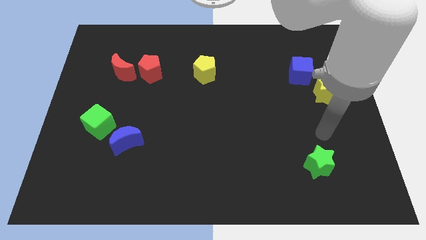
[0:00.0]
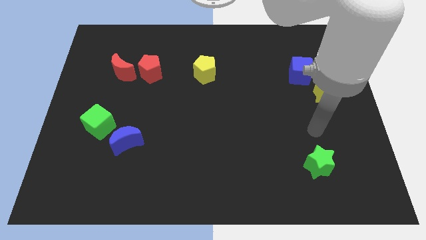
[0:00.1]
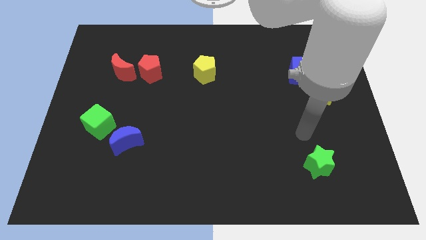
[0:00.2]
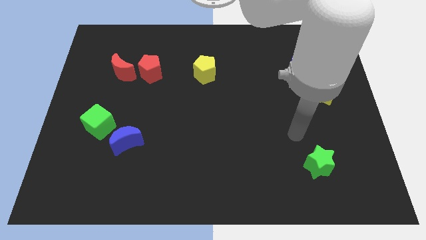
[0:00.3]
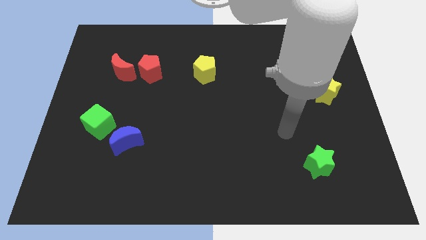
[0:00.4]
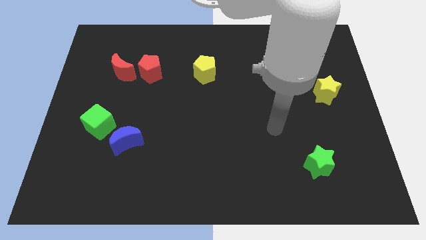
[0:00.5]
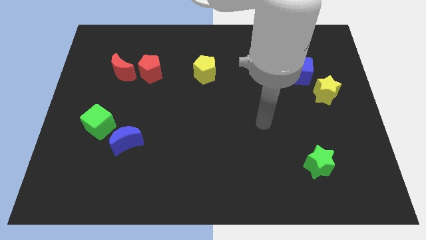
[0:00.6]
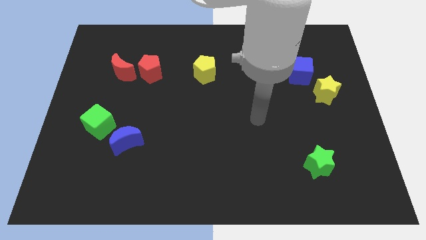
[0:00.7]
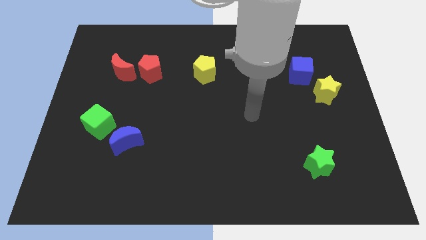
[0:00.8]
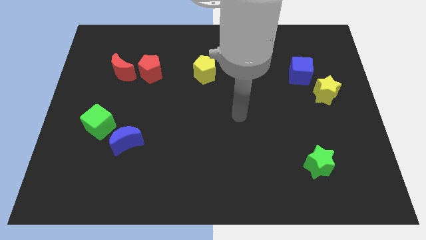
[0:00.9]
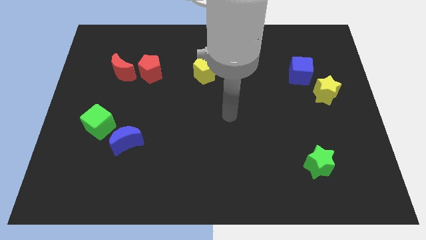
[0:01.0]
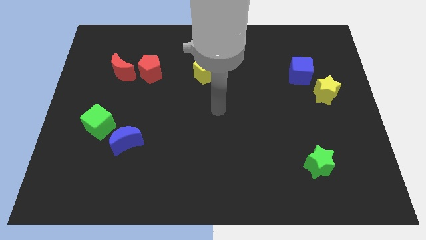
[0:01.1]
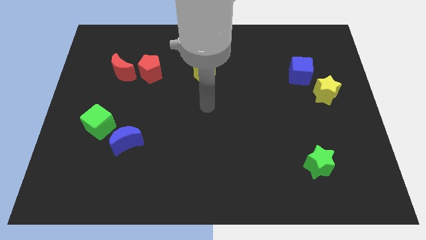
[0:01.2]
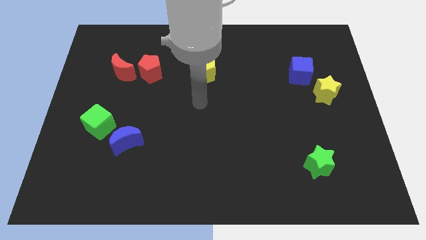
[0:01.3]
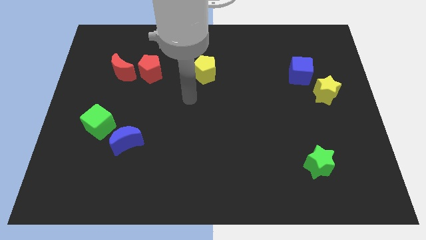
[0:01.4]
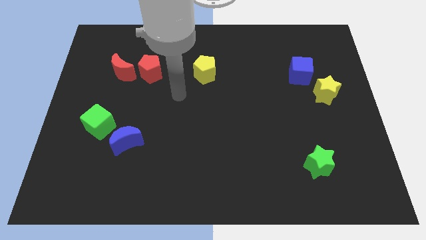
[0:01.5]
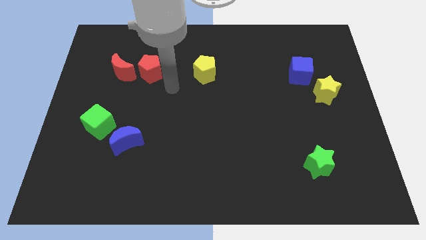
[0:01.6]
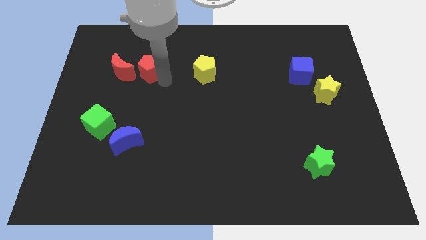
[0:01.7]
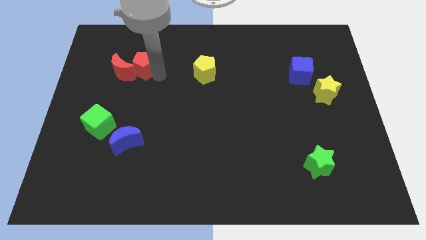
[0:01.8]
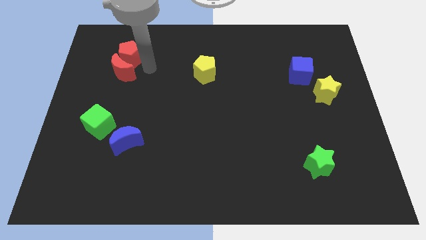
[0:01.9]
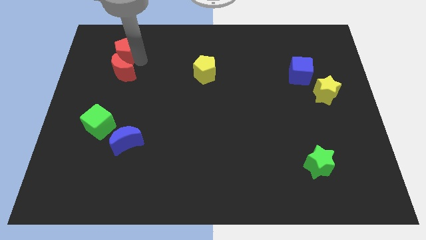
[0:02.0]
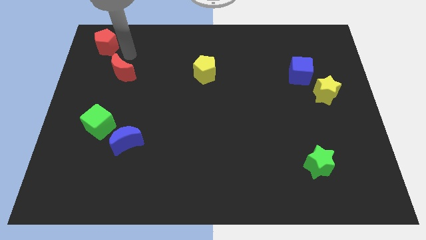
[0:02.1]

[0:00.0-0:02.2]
move the red moon away from the red pentagon

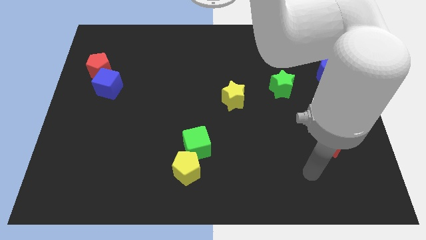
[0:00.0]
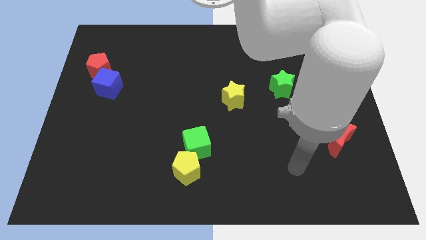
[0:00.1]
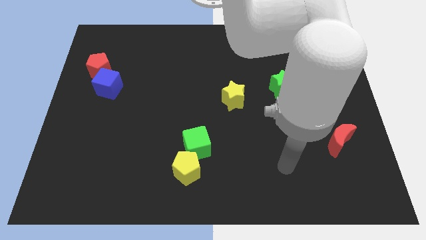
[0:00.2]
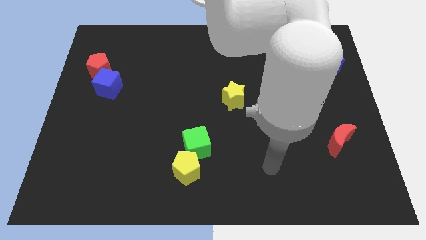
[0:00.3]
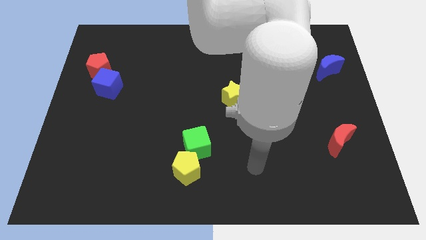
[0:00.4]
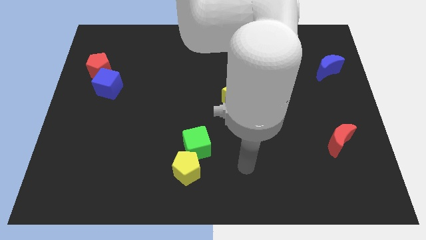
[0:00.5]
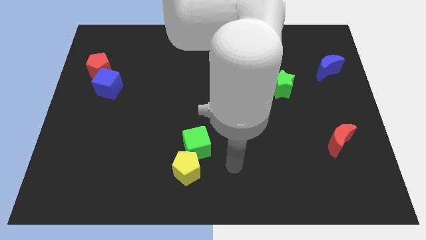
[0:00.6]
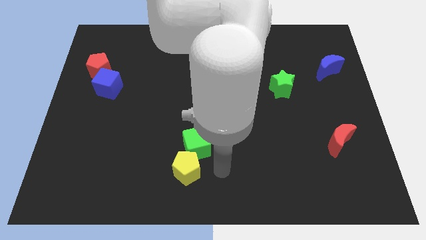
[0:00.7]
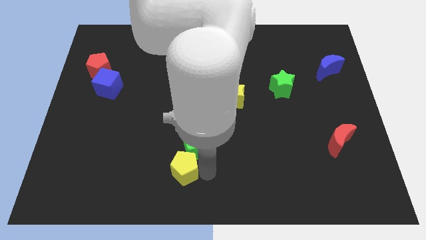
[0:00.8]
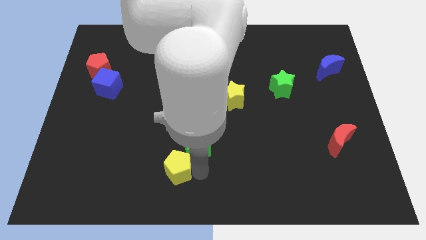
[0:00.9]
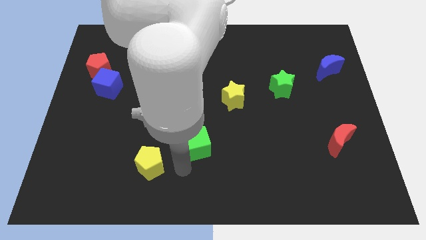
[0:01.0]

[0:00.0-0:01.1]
move the green cube away from the yellow pentagon

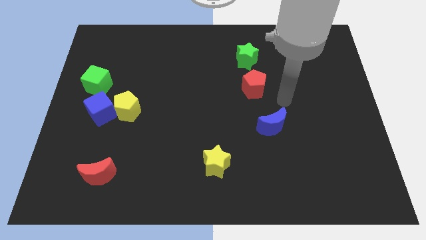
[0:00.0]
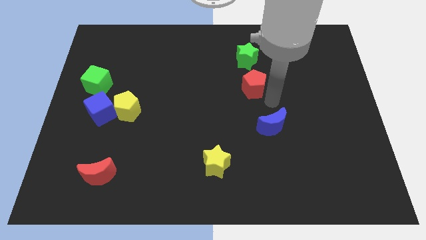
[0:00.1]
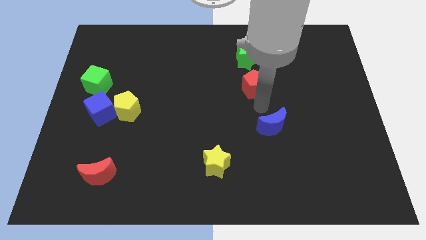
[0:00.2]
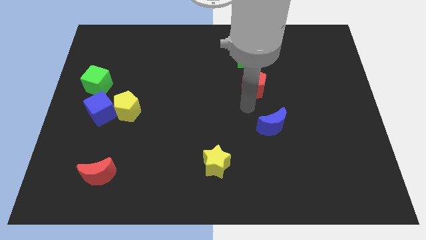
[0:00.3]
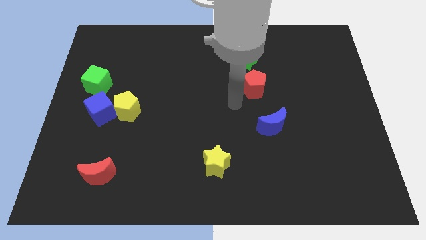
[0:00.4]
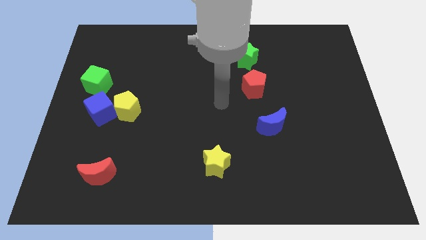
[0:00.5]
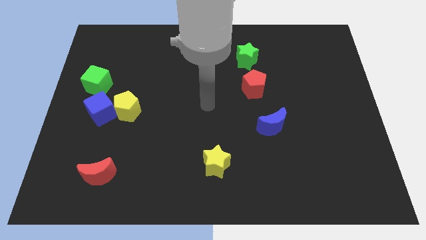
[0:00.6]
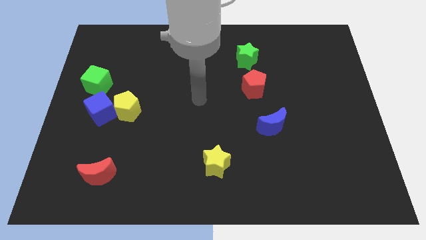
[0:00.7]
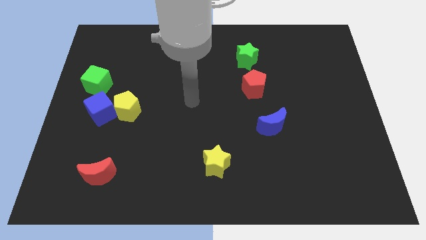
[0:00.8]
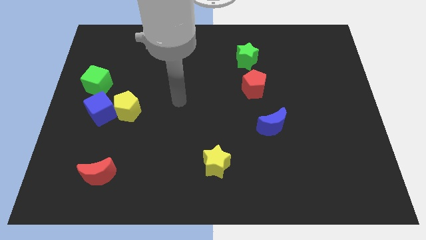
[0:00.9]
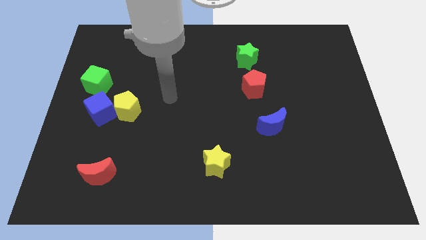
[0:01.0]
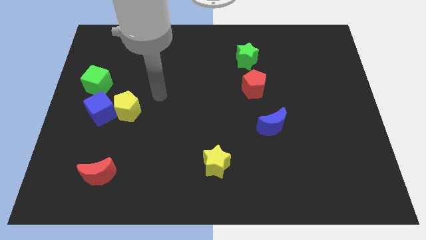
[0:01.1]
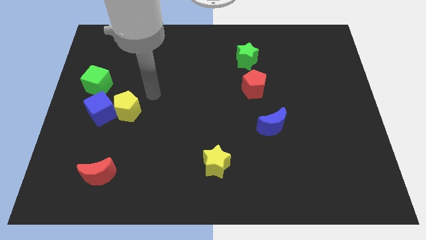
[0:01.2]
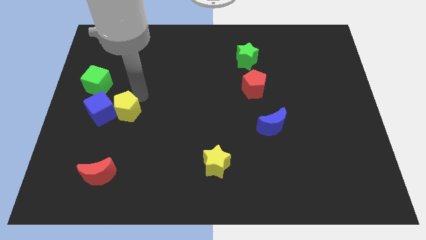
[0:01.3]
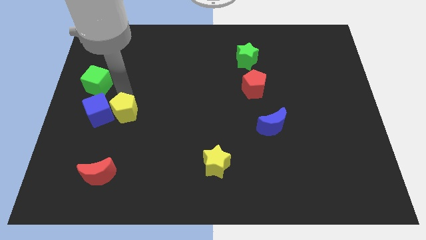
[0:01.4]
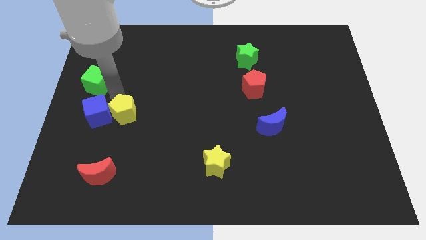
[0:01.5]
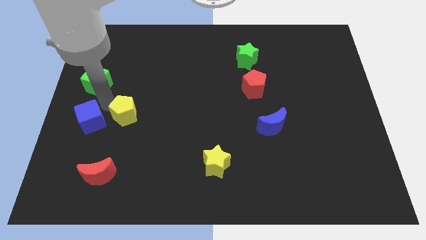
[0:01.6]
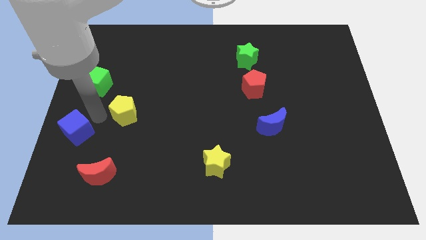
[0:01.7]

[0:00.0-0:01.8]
move the yellow pentagon away from the blue cube

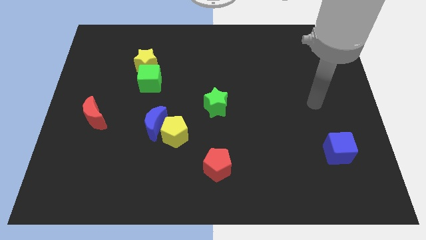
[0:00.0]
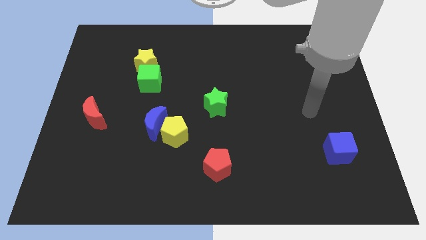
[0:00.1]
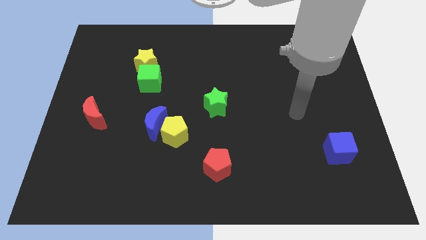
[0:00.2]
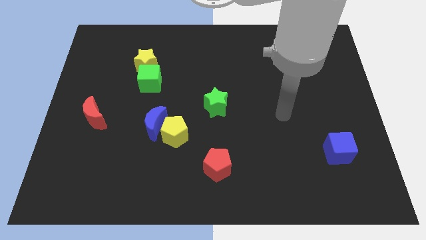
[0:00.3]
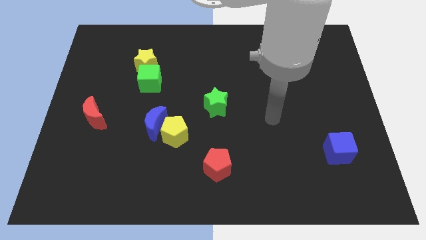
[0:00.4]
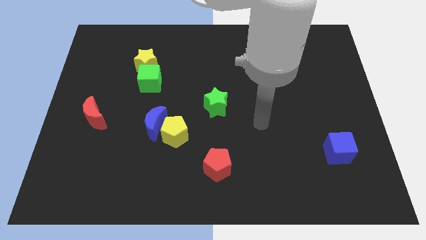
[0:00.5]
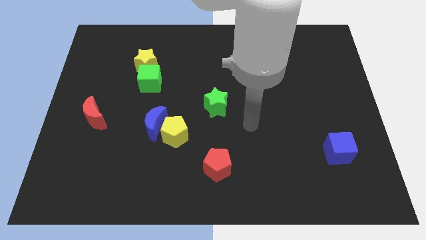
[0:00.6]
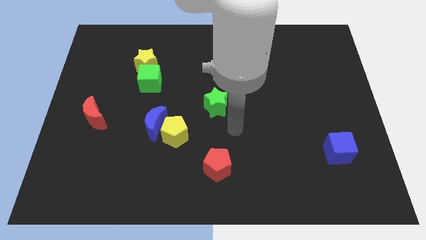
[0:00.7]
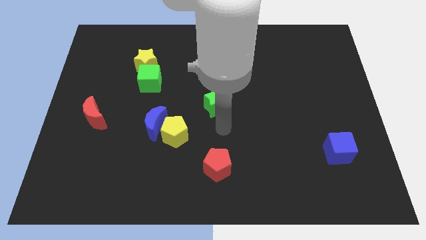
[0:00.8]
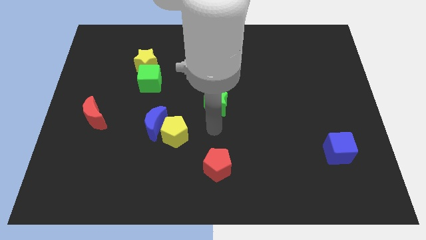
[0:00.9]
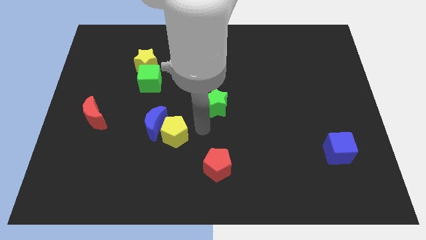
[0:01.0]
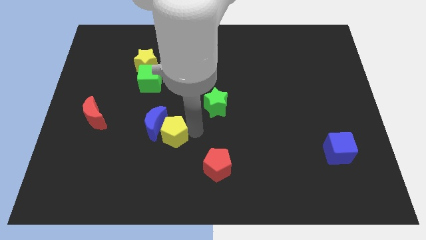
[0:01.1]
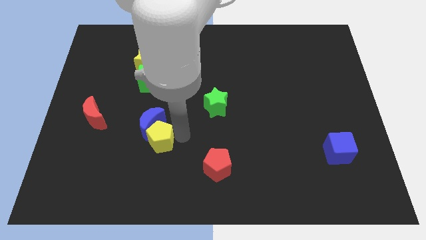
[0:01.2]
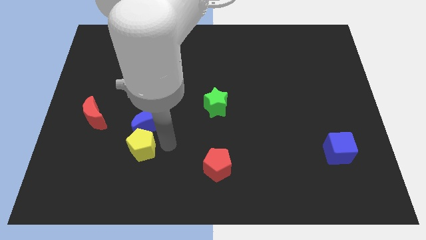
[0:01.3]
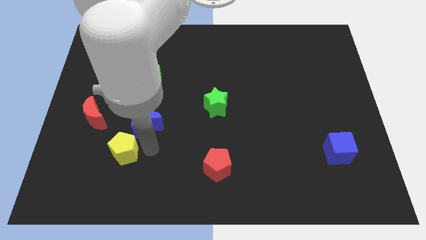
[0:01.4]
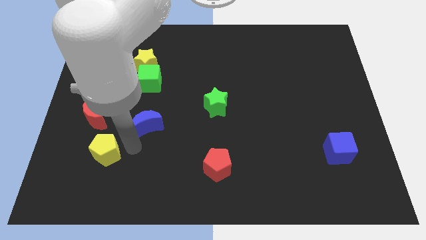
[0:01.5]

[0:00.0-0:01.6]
pull the blue moon apart from the yellow pentagon

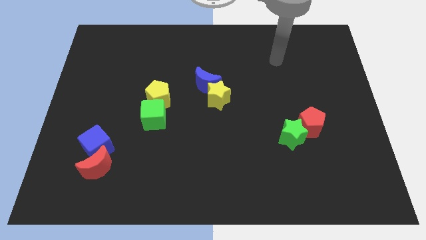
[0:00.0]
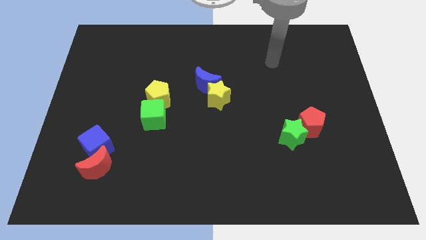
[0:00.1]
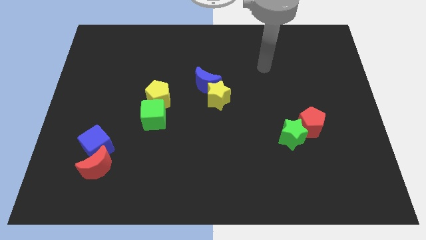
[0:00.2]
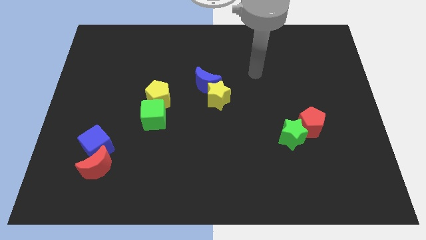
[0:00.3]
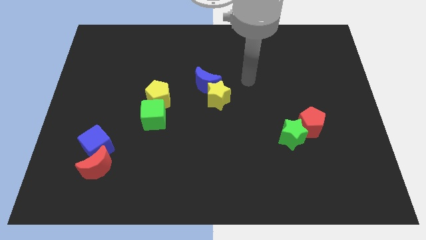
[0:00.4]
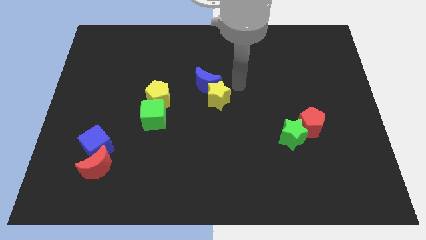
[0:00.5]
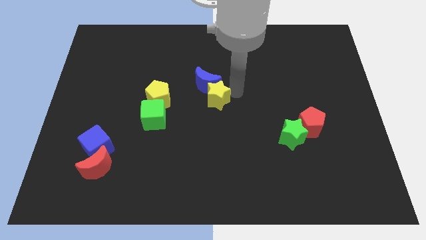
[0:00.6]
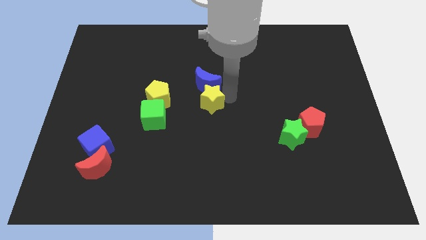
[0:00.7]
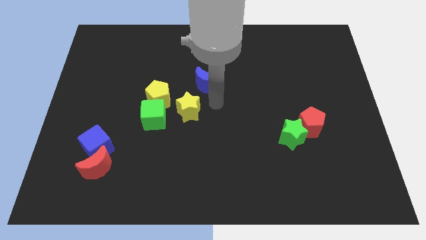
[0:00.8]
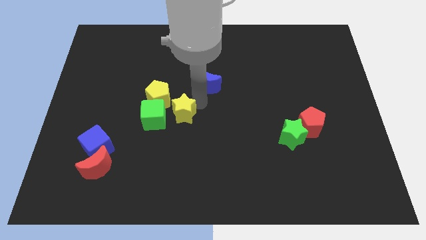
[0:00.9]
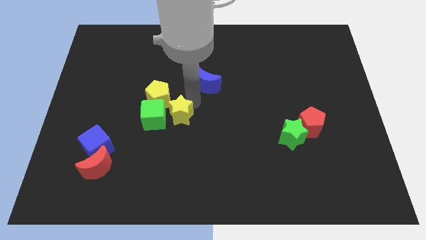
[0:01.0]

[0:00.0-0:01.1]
separate the blue moon from the yellow star

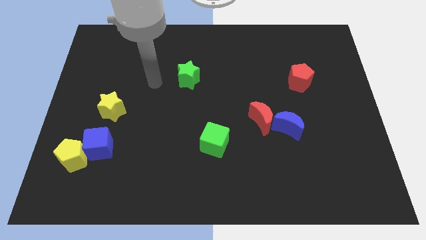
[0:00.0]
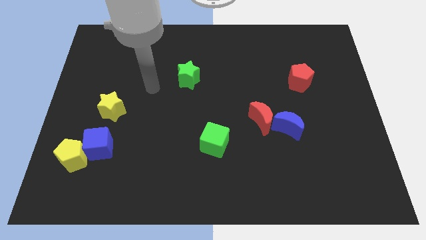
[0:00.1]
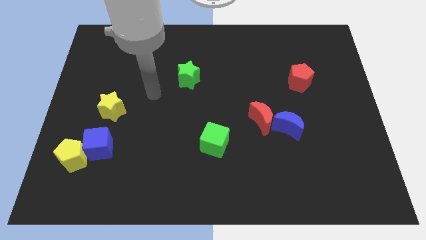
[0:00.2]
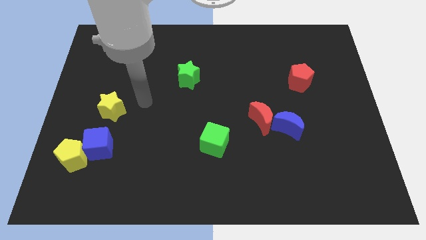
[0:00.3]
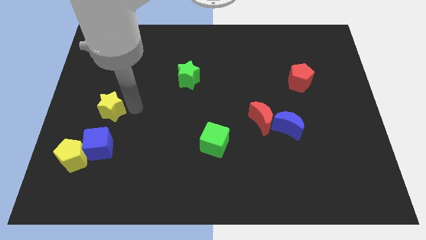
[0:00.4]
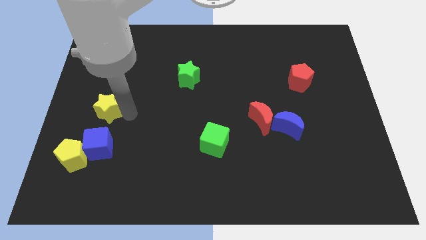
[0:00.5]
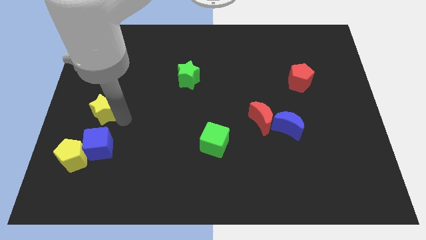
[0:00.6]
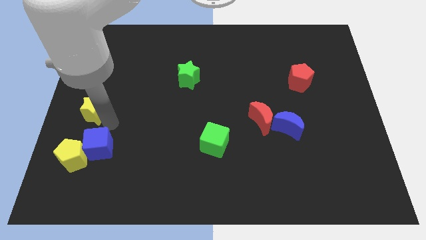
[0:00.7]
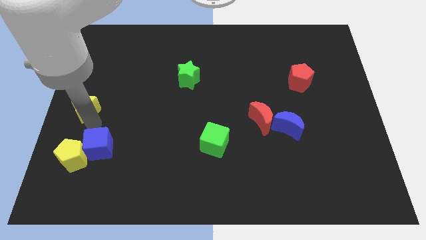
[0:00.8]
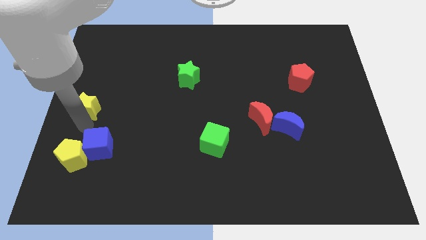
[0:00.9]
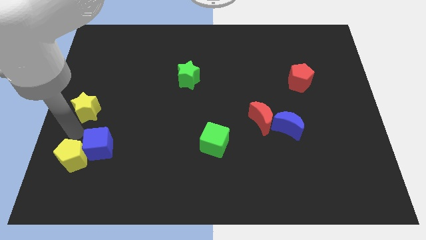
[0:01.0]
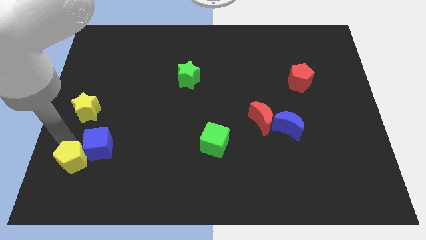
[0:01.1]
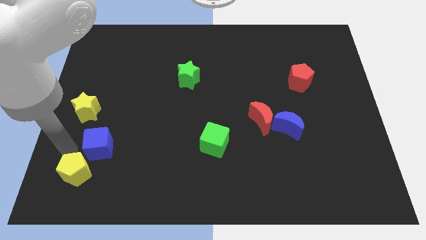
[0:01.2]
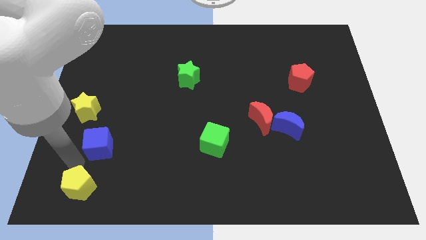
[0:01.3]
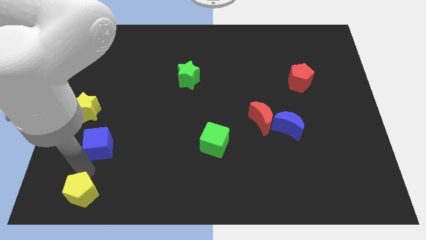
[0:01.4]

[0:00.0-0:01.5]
move the blue cube away from the yellow pentagon
